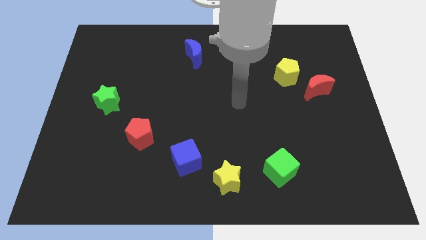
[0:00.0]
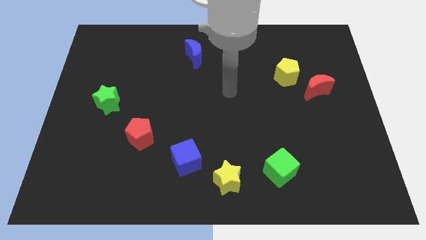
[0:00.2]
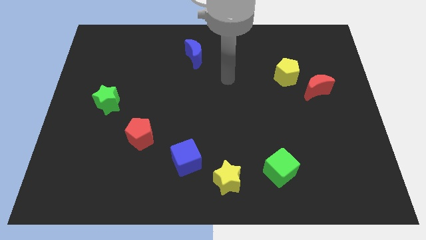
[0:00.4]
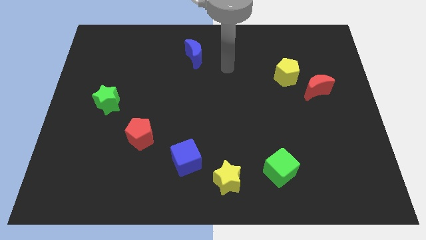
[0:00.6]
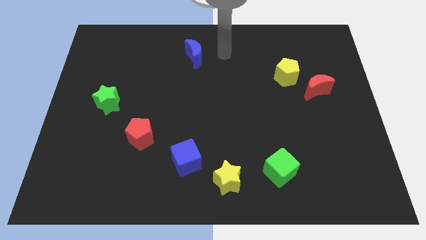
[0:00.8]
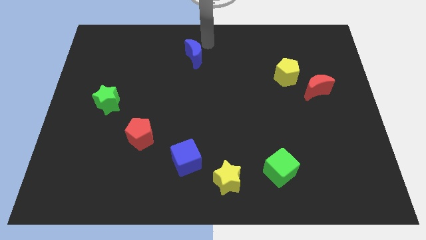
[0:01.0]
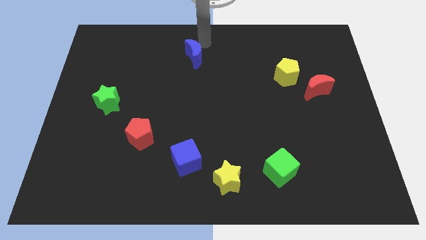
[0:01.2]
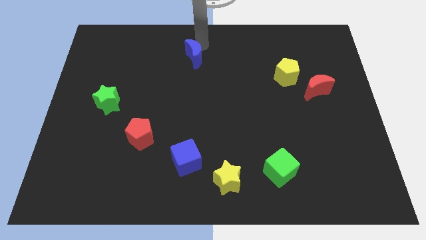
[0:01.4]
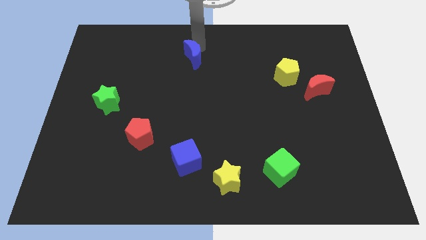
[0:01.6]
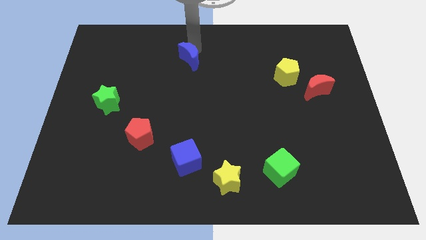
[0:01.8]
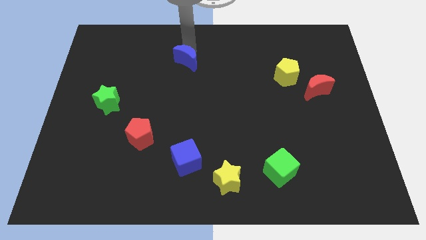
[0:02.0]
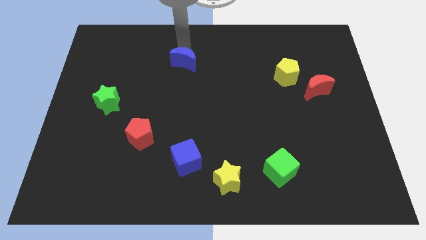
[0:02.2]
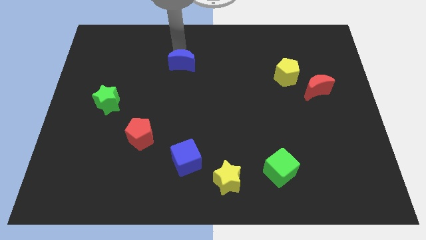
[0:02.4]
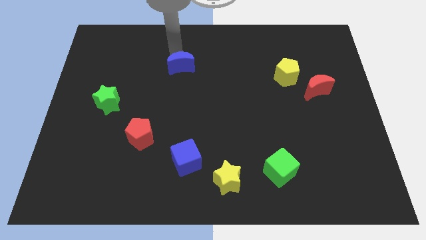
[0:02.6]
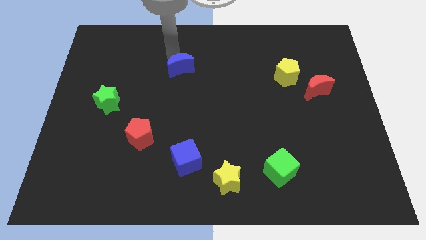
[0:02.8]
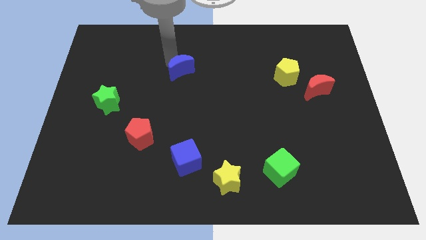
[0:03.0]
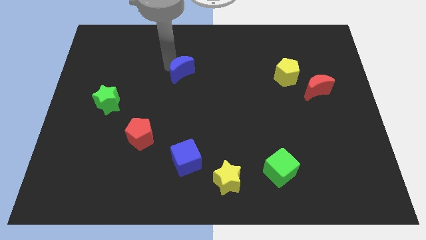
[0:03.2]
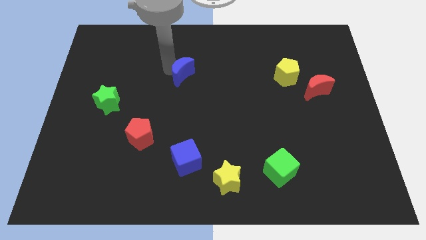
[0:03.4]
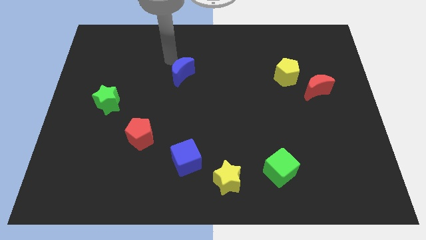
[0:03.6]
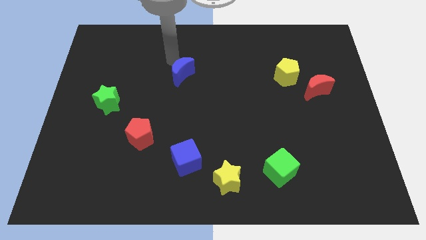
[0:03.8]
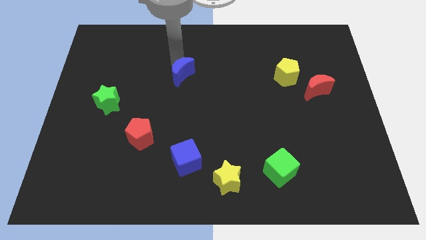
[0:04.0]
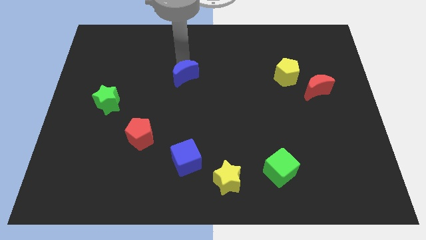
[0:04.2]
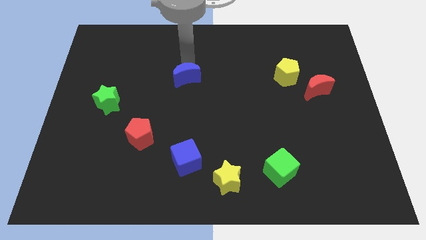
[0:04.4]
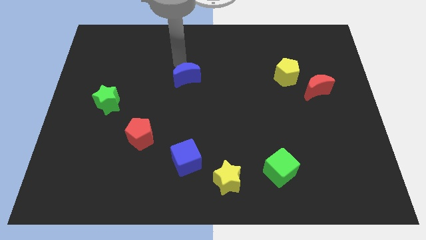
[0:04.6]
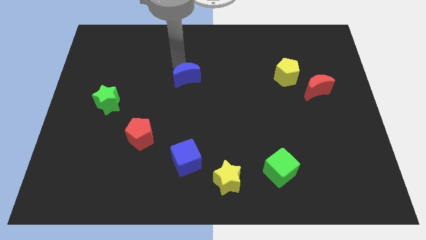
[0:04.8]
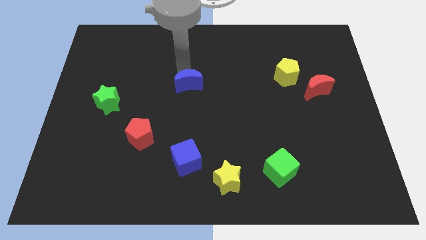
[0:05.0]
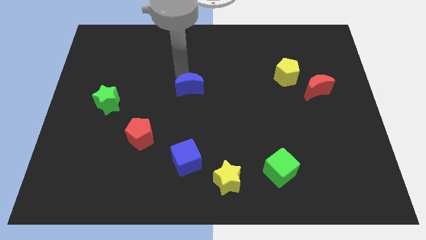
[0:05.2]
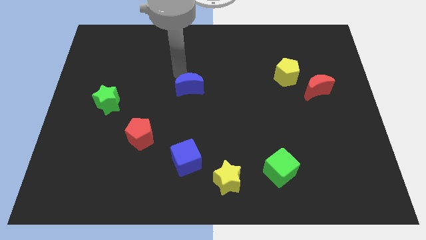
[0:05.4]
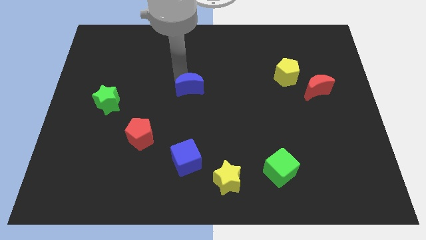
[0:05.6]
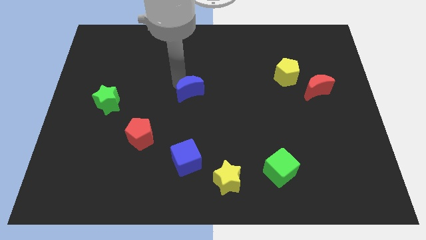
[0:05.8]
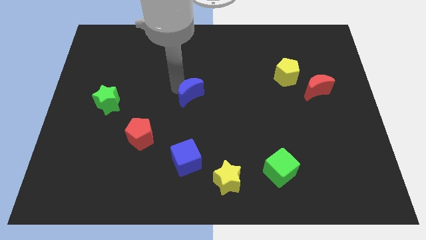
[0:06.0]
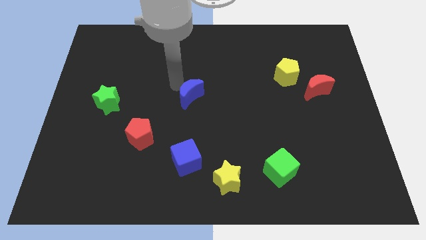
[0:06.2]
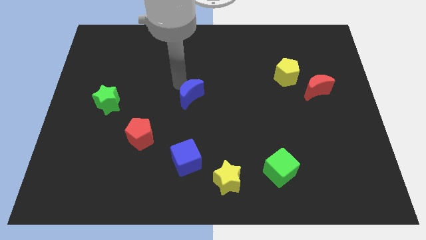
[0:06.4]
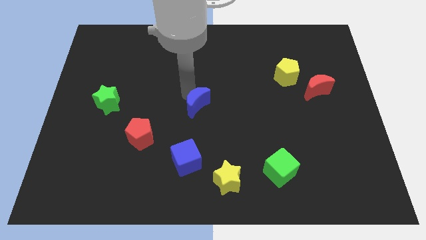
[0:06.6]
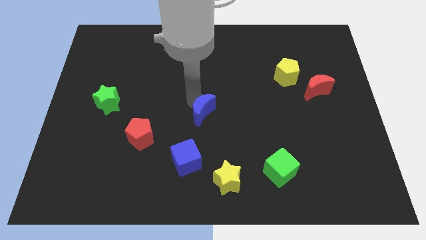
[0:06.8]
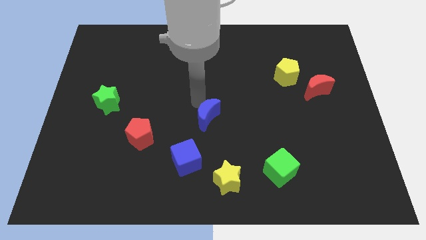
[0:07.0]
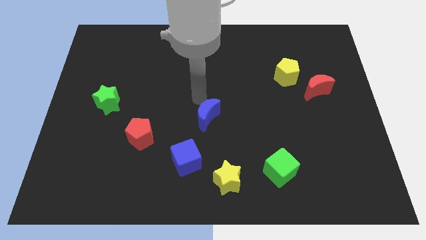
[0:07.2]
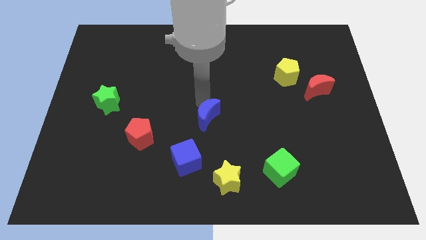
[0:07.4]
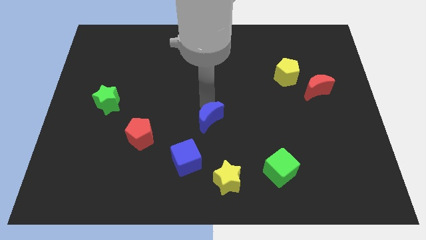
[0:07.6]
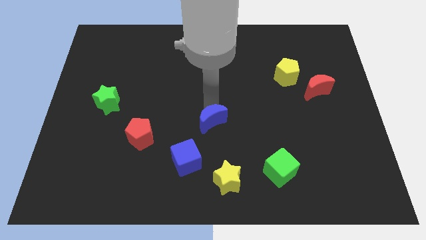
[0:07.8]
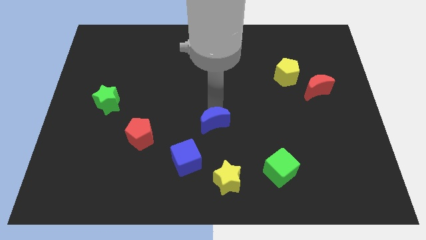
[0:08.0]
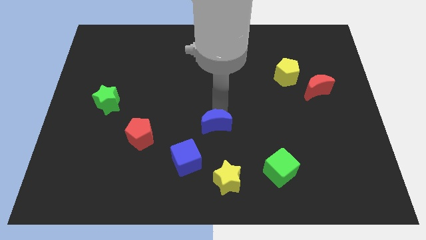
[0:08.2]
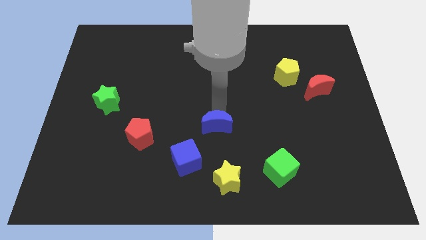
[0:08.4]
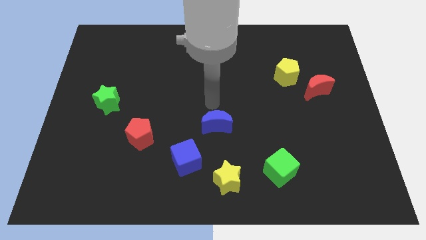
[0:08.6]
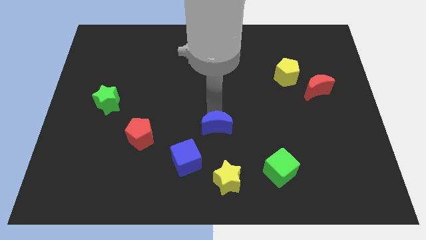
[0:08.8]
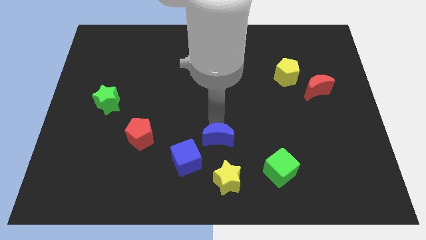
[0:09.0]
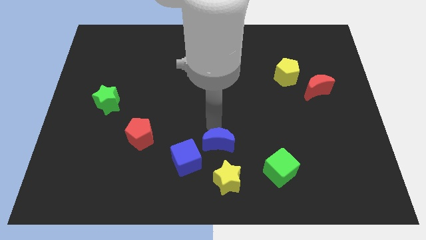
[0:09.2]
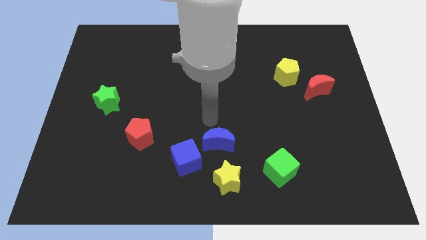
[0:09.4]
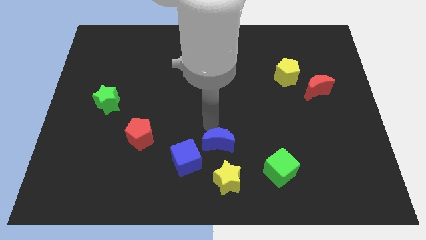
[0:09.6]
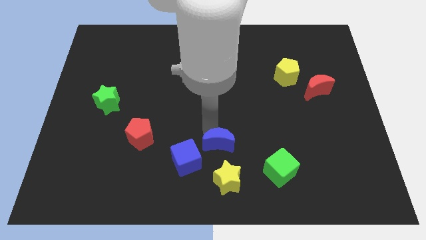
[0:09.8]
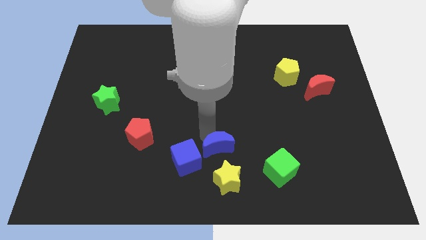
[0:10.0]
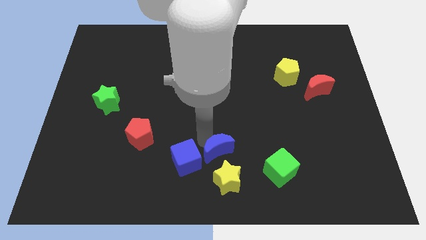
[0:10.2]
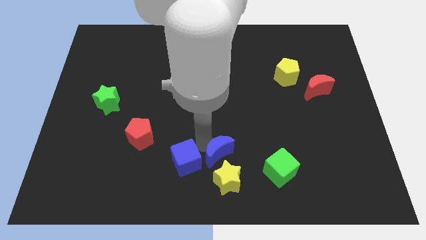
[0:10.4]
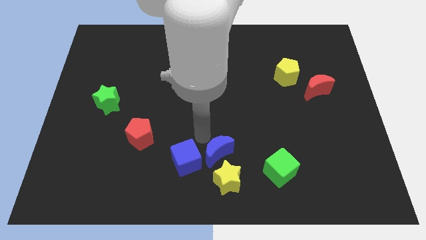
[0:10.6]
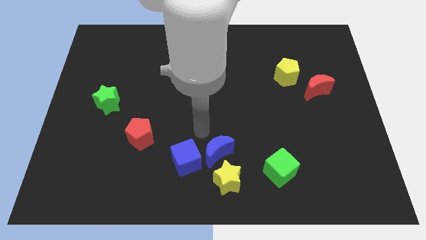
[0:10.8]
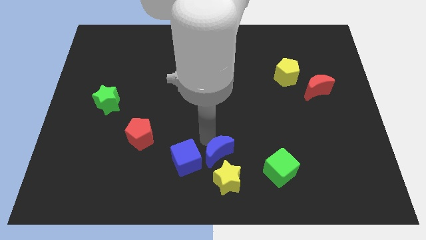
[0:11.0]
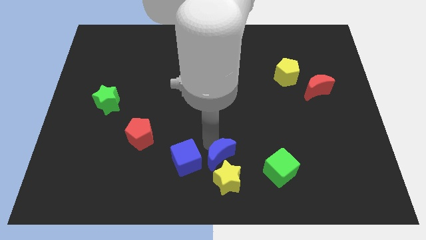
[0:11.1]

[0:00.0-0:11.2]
move the blue moon next to the yellow star

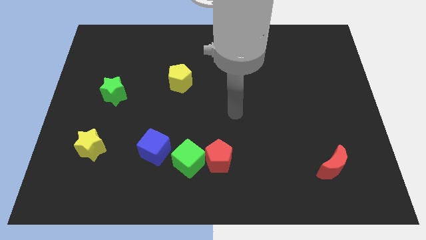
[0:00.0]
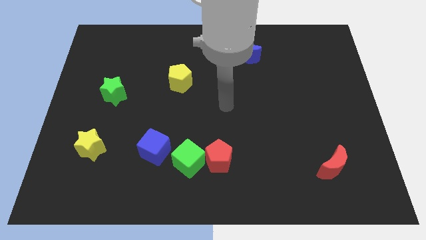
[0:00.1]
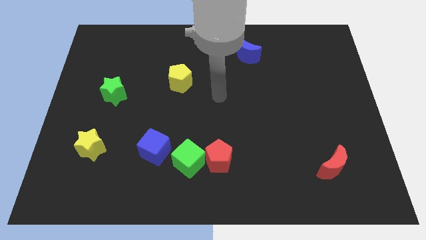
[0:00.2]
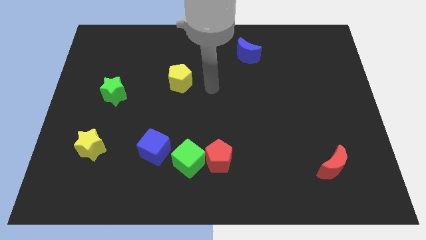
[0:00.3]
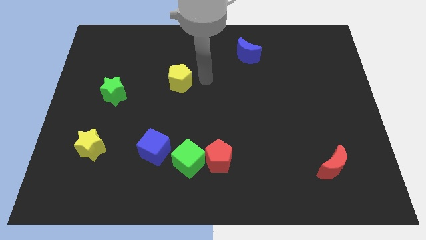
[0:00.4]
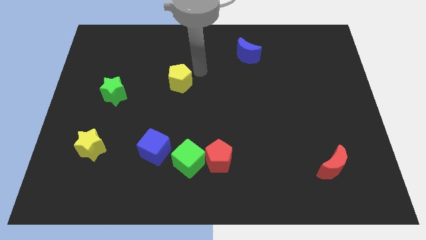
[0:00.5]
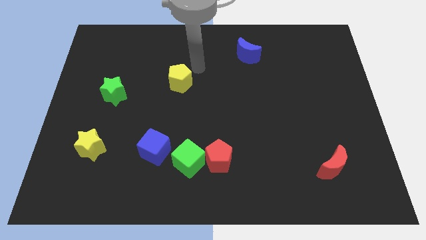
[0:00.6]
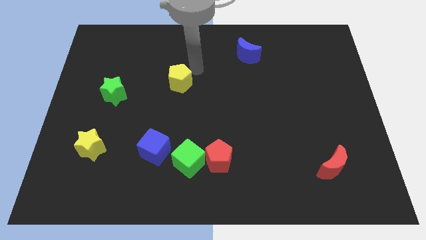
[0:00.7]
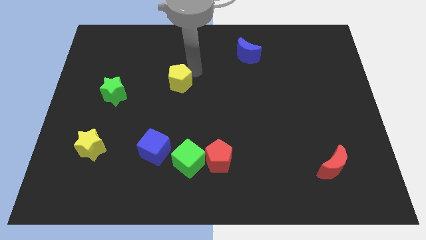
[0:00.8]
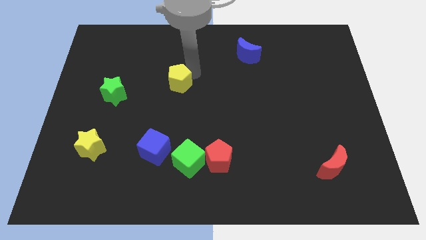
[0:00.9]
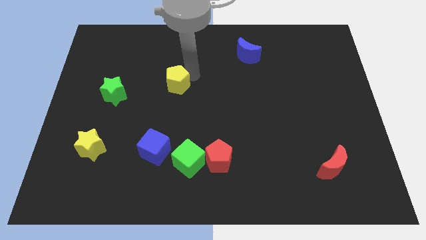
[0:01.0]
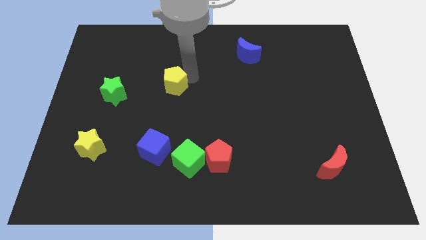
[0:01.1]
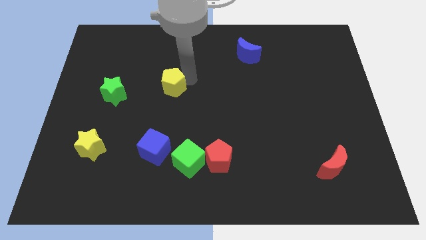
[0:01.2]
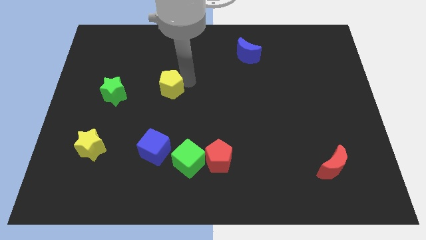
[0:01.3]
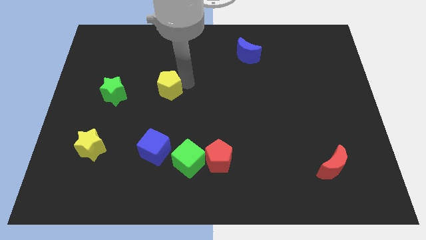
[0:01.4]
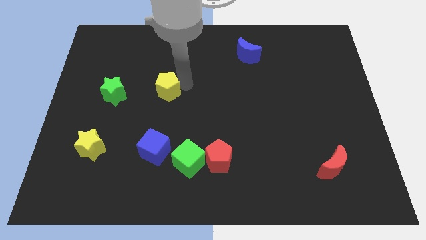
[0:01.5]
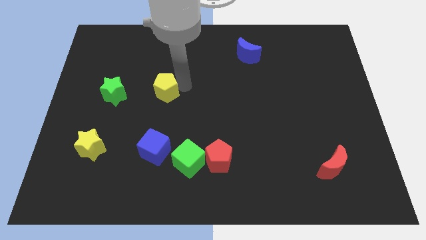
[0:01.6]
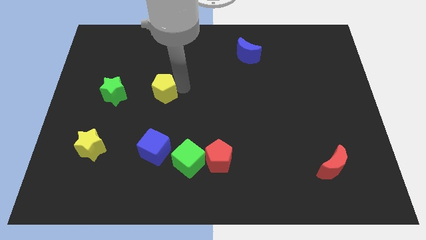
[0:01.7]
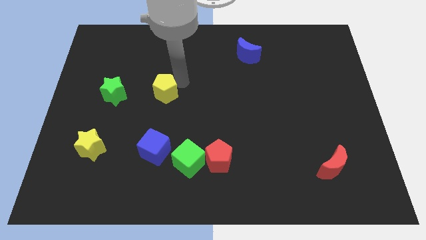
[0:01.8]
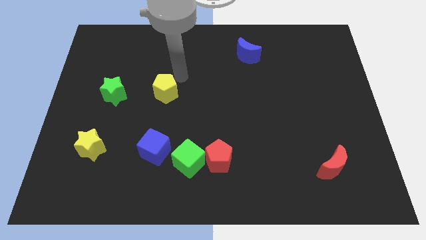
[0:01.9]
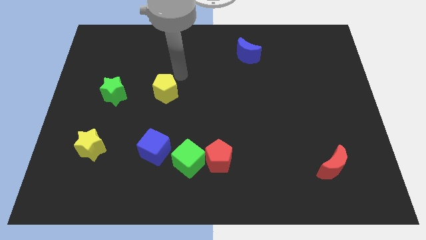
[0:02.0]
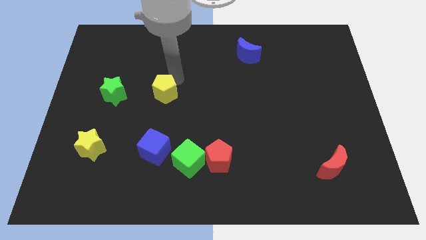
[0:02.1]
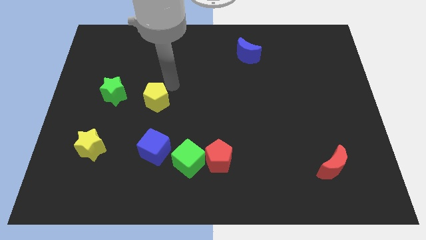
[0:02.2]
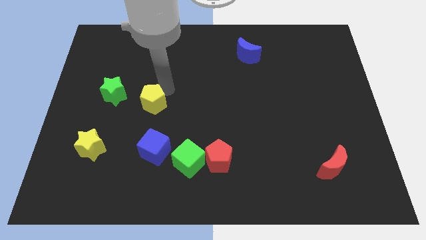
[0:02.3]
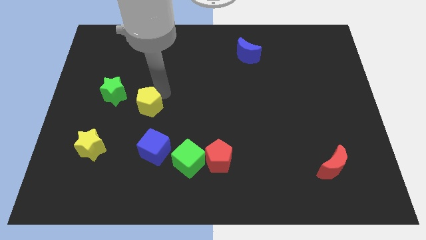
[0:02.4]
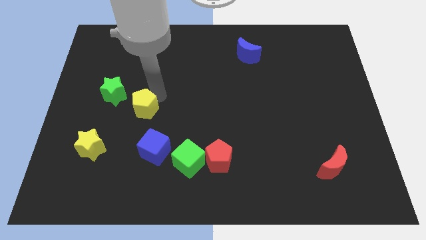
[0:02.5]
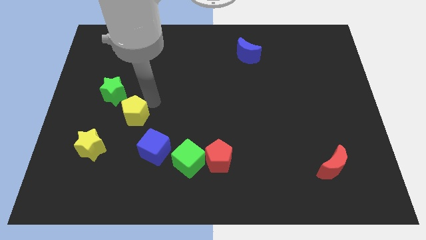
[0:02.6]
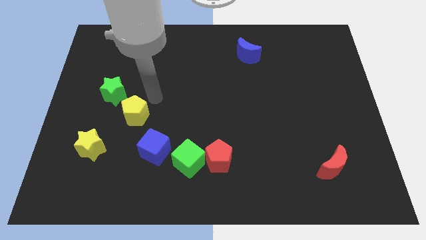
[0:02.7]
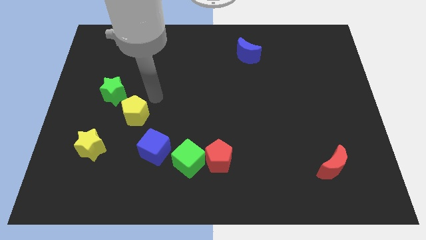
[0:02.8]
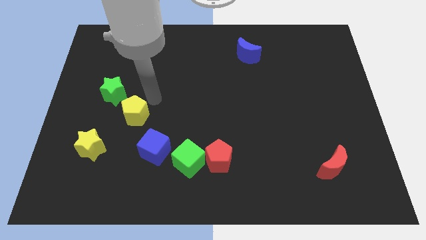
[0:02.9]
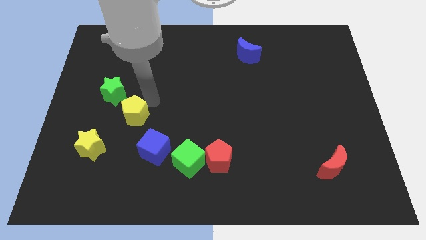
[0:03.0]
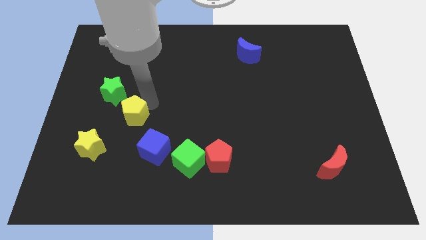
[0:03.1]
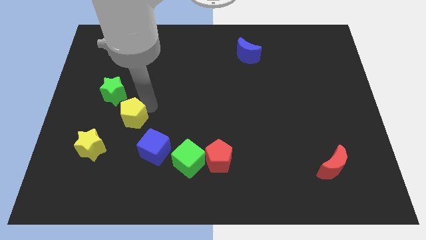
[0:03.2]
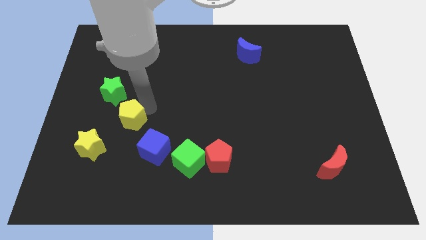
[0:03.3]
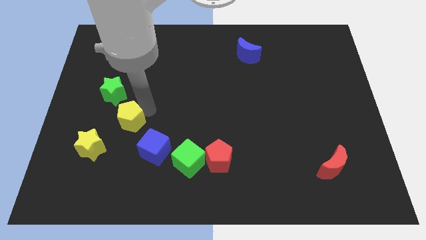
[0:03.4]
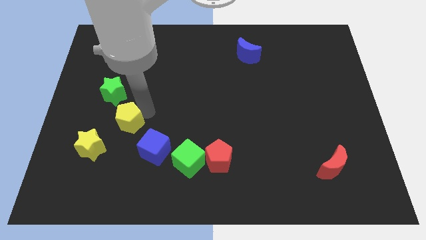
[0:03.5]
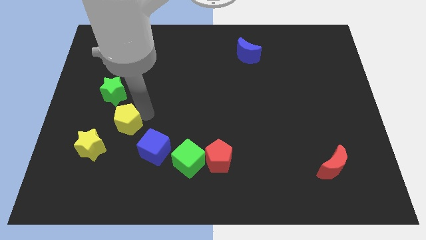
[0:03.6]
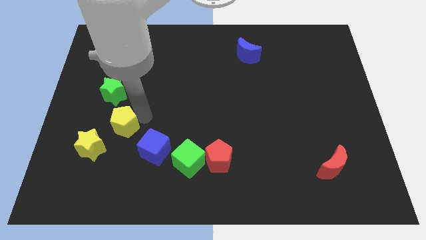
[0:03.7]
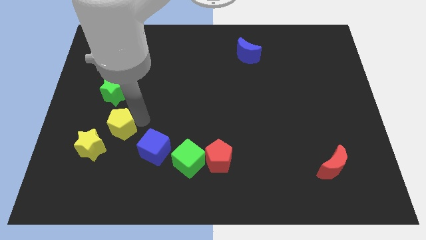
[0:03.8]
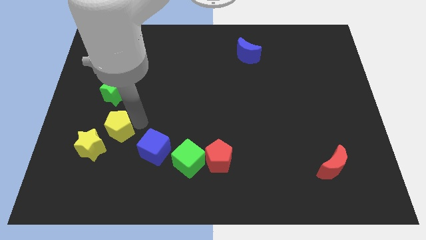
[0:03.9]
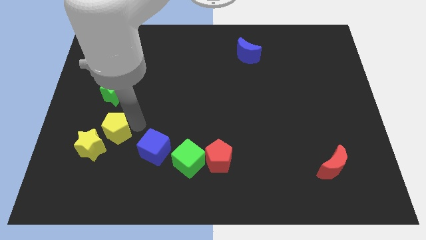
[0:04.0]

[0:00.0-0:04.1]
push the yellow pentagon next to the yellow star
